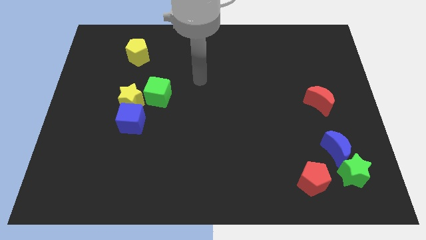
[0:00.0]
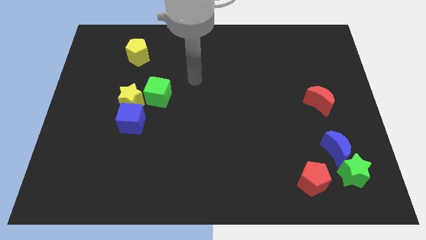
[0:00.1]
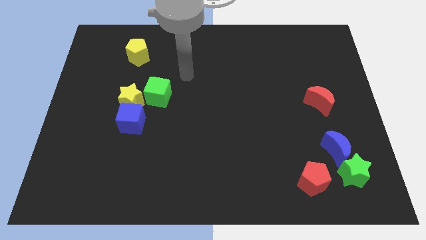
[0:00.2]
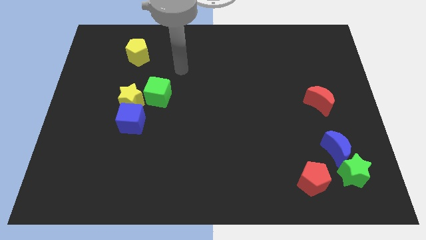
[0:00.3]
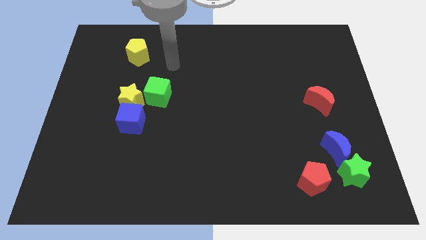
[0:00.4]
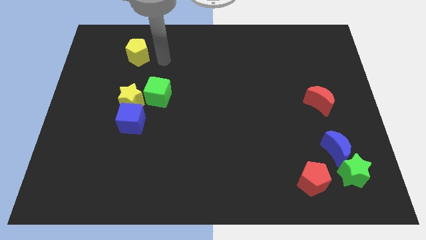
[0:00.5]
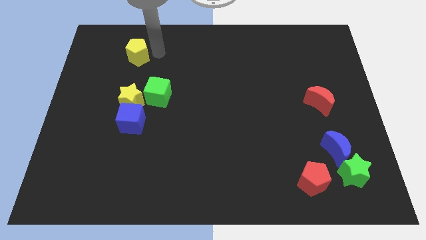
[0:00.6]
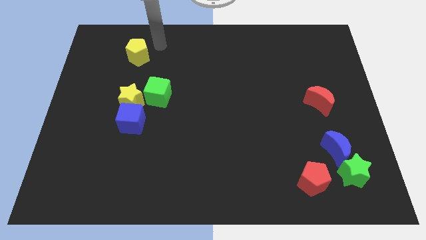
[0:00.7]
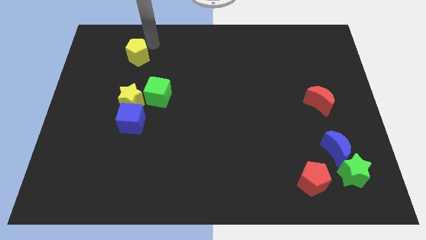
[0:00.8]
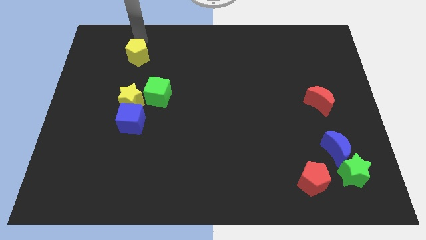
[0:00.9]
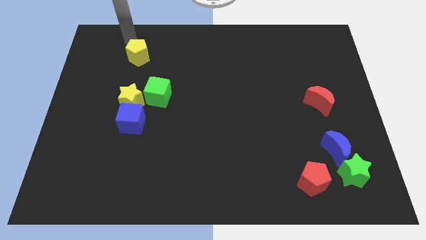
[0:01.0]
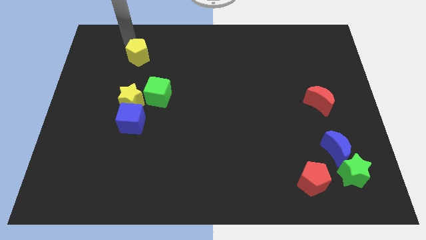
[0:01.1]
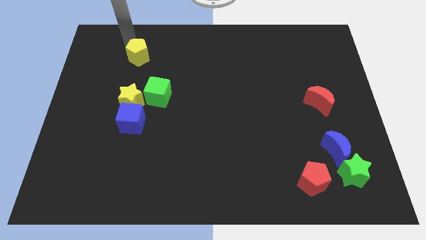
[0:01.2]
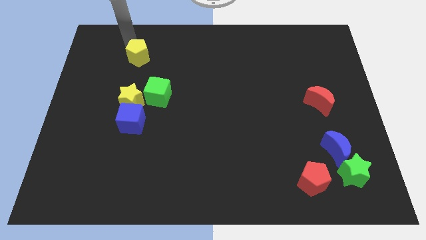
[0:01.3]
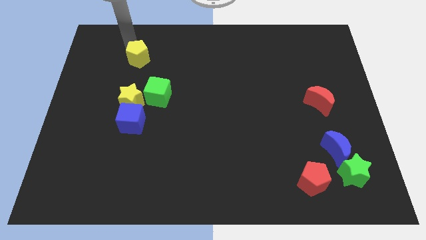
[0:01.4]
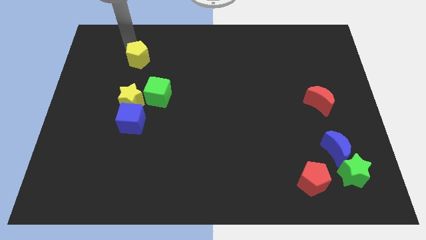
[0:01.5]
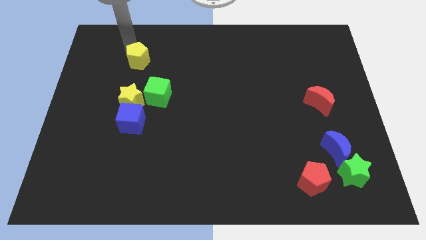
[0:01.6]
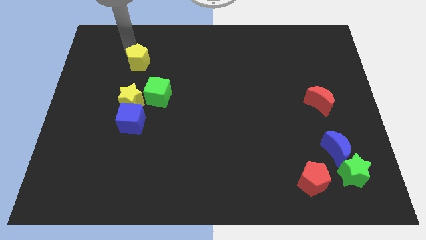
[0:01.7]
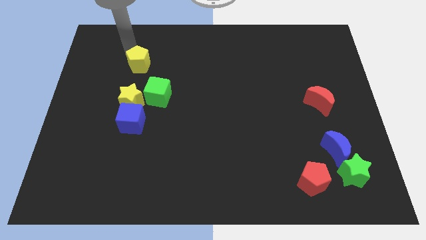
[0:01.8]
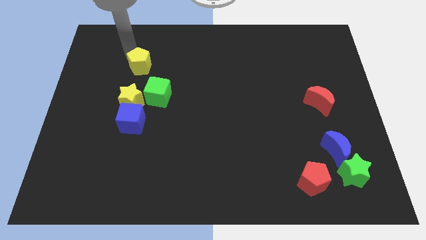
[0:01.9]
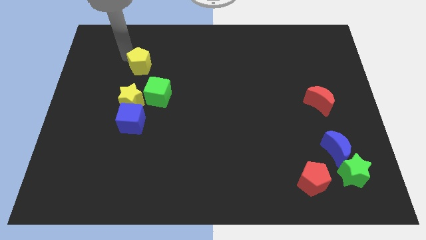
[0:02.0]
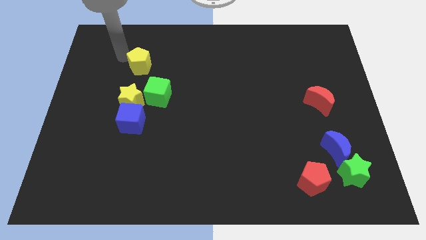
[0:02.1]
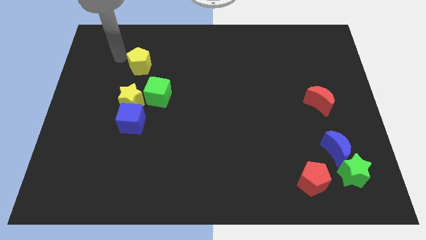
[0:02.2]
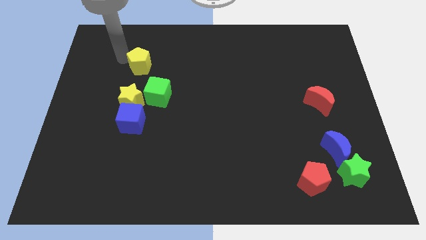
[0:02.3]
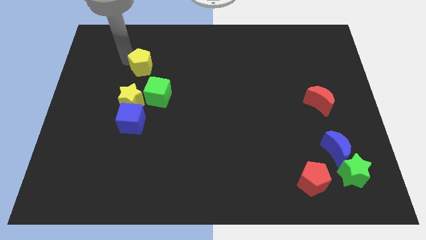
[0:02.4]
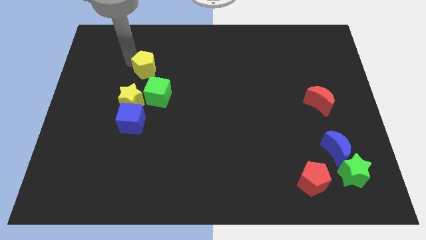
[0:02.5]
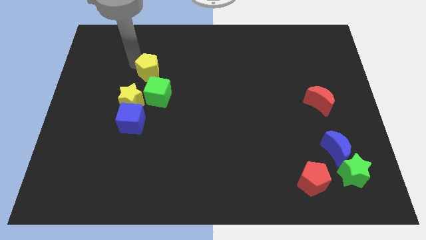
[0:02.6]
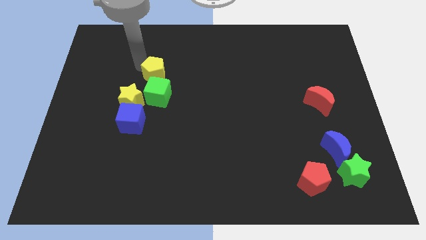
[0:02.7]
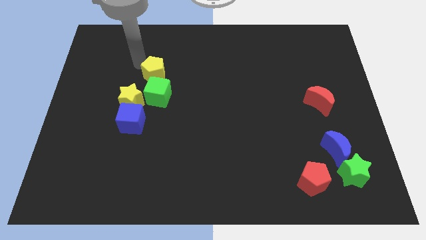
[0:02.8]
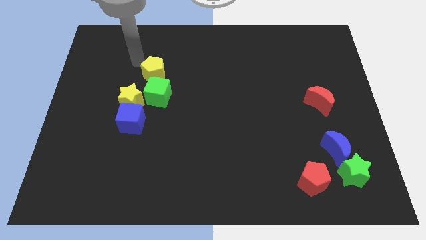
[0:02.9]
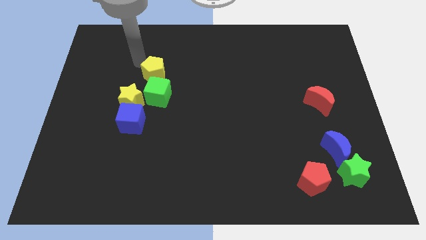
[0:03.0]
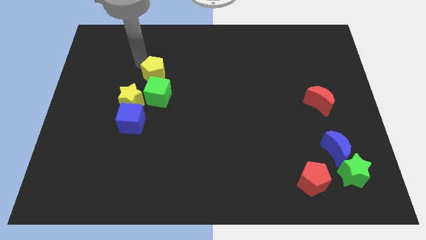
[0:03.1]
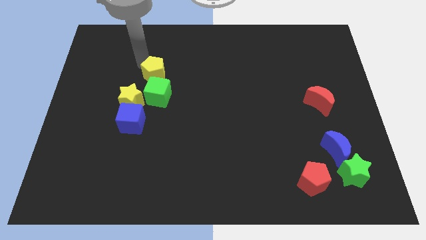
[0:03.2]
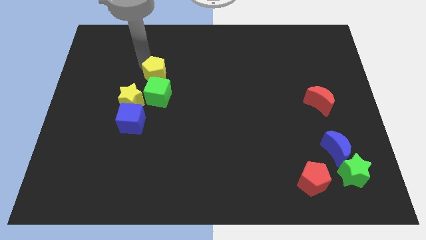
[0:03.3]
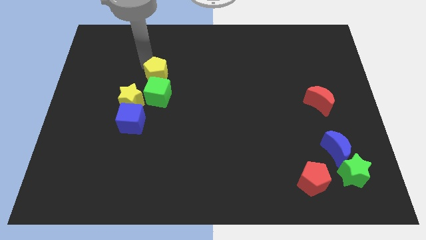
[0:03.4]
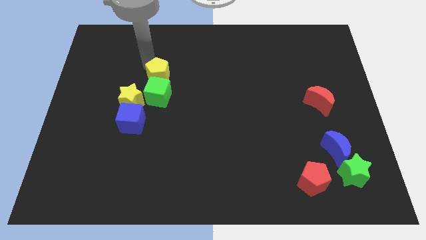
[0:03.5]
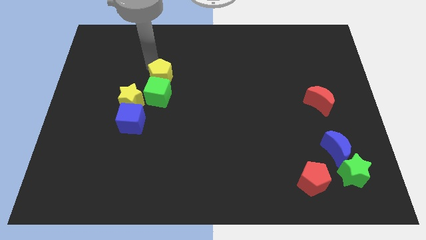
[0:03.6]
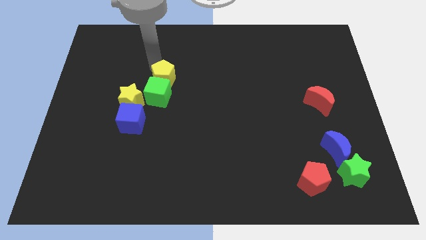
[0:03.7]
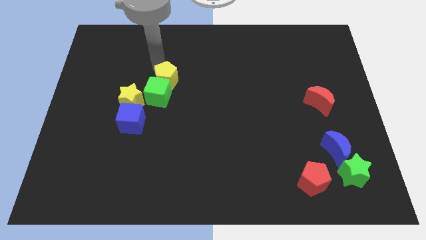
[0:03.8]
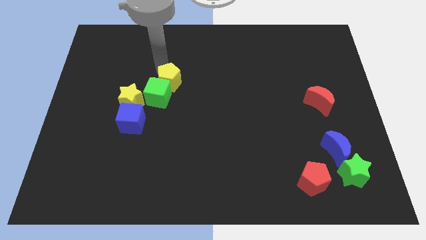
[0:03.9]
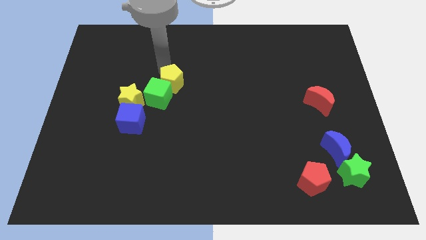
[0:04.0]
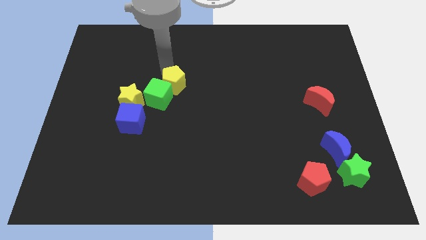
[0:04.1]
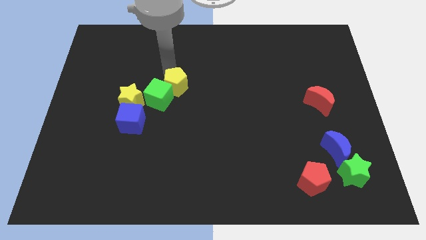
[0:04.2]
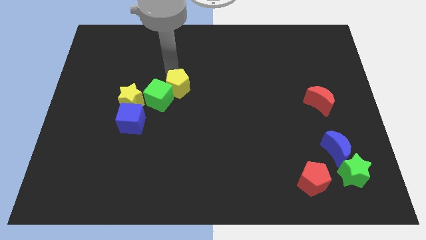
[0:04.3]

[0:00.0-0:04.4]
put the yellow pentagon to the right of the yellow star

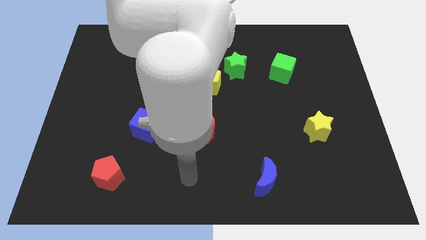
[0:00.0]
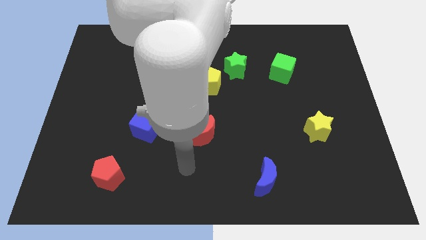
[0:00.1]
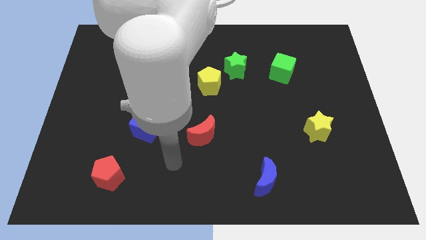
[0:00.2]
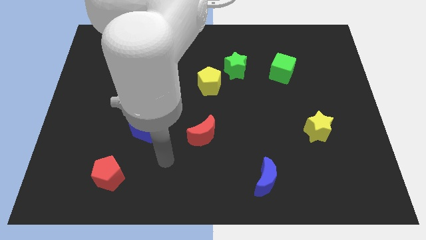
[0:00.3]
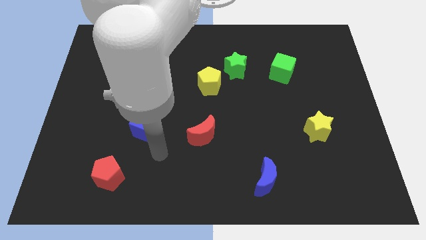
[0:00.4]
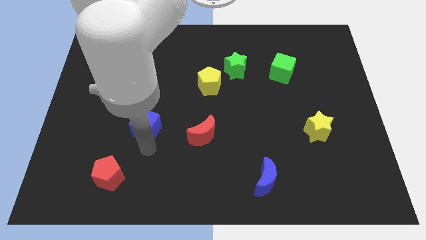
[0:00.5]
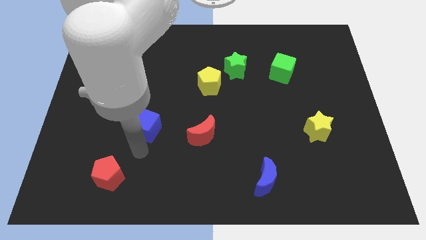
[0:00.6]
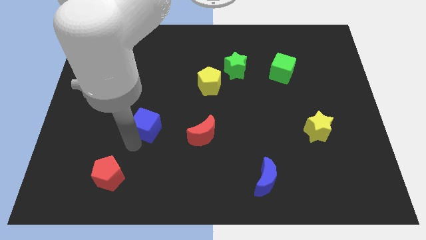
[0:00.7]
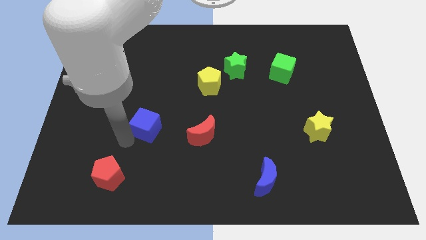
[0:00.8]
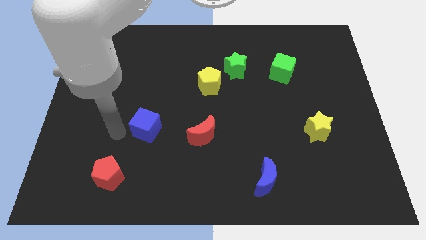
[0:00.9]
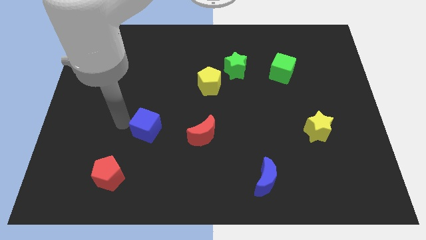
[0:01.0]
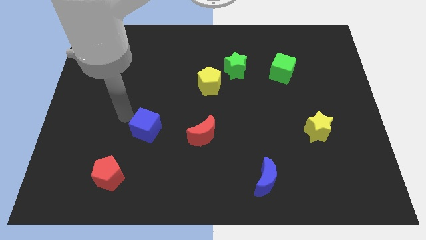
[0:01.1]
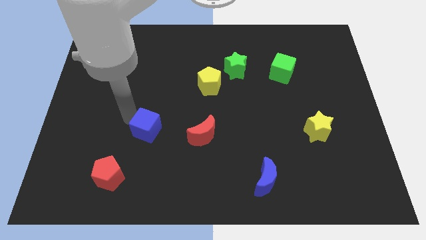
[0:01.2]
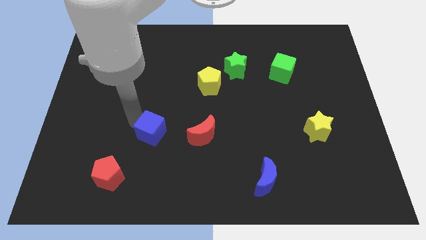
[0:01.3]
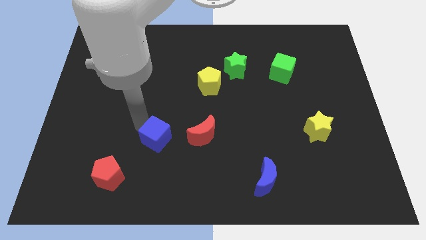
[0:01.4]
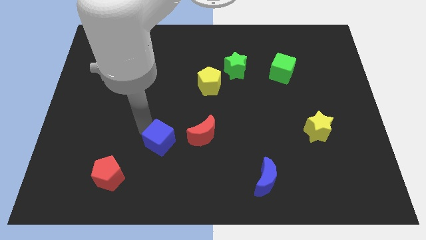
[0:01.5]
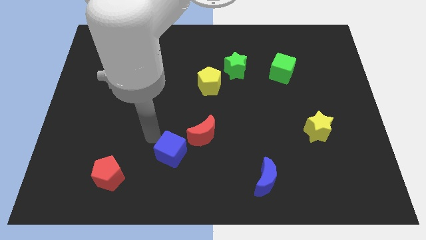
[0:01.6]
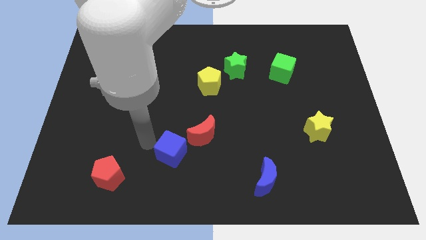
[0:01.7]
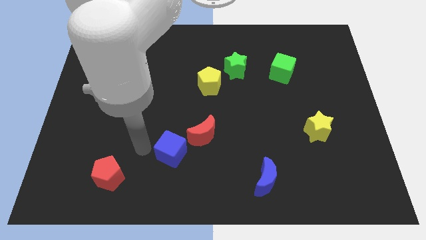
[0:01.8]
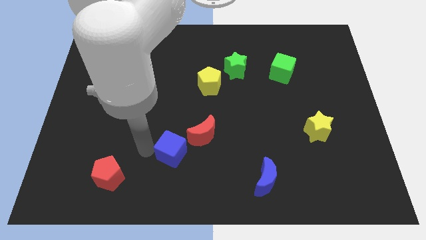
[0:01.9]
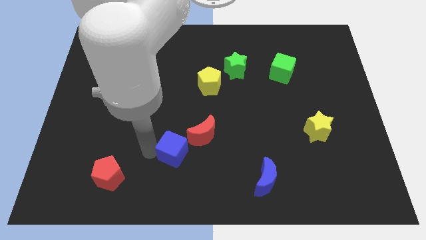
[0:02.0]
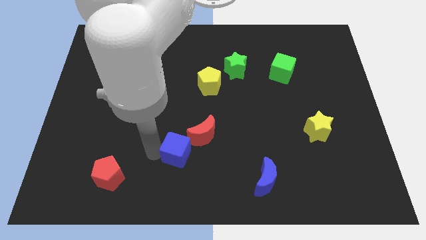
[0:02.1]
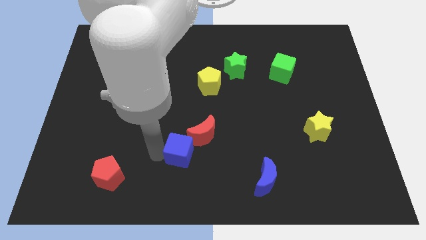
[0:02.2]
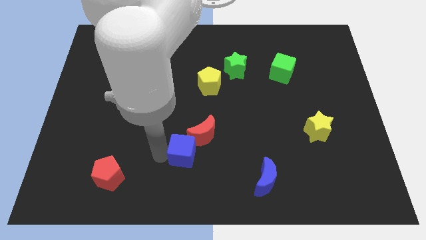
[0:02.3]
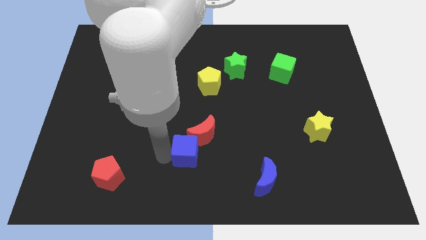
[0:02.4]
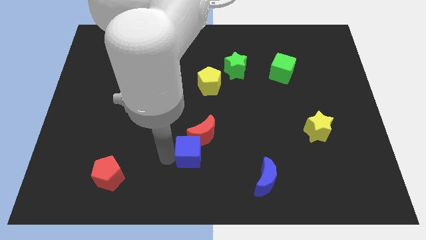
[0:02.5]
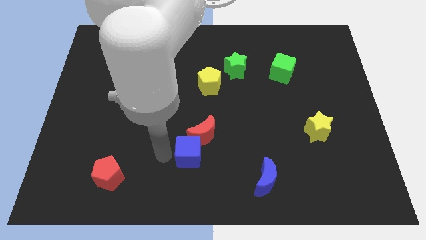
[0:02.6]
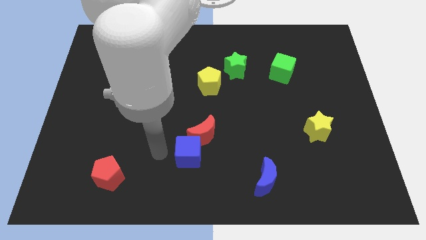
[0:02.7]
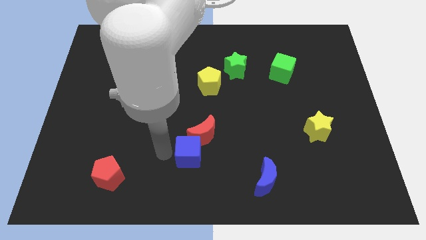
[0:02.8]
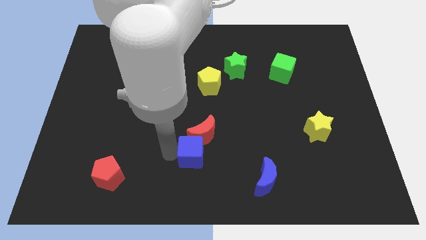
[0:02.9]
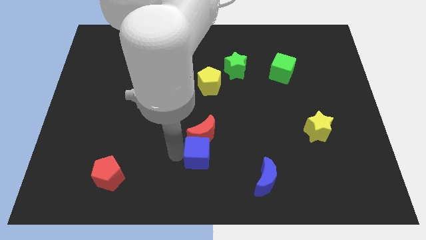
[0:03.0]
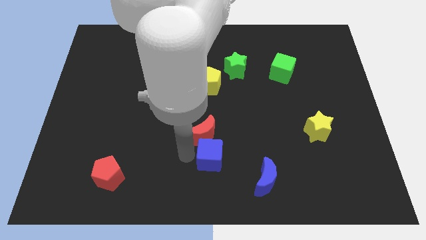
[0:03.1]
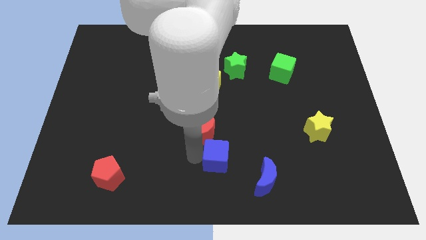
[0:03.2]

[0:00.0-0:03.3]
push the blue cube to the top left side of the blue moon
